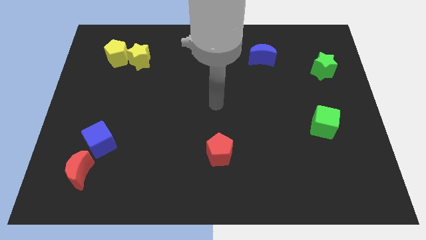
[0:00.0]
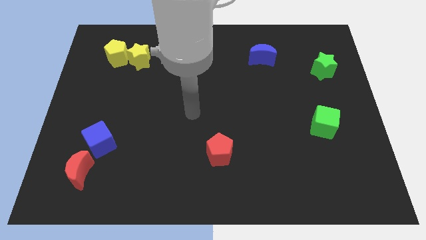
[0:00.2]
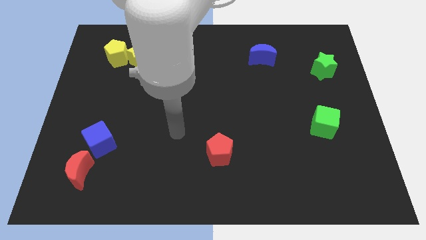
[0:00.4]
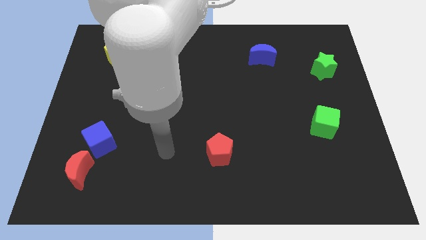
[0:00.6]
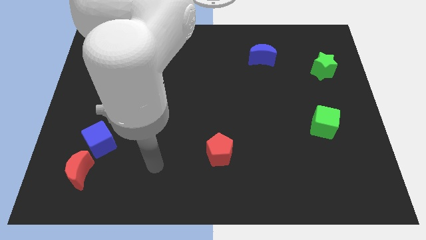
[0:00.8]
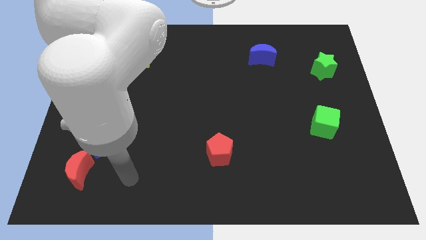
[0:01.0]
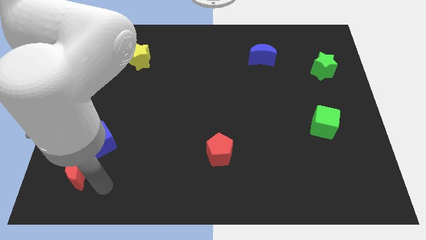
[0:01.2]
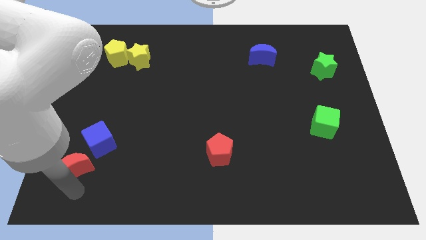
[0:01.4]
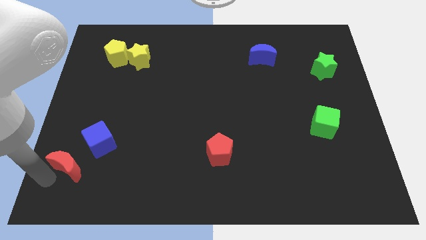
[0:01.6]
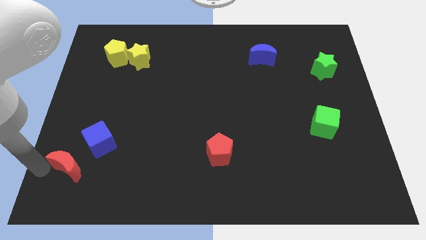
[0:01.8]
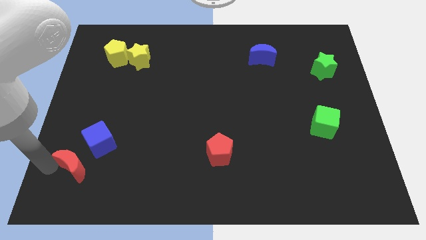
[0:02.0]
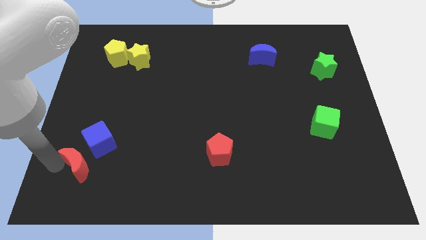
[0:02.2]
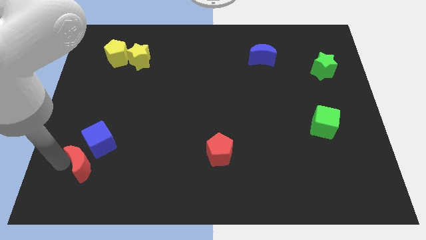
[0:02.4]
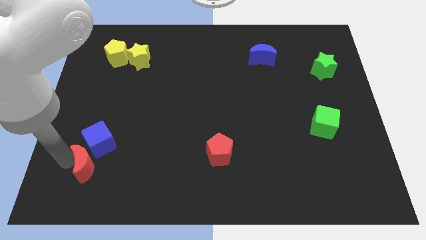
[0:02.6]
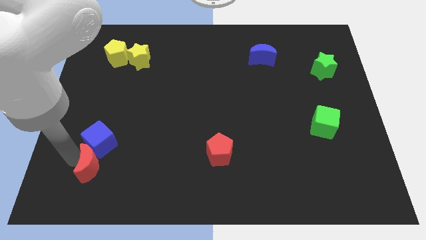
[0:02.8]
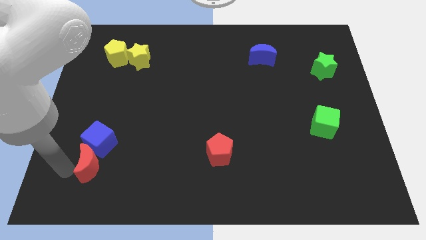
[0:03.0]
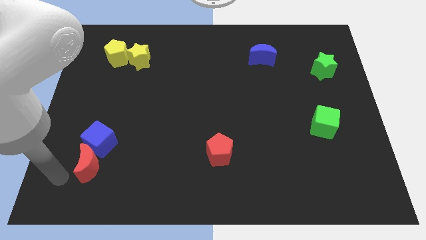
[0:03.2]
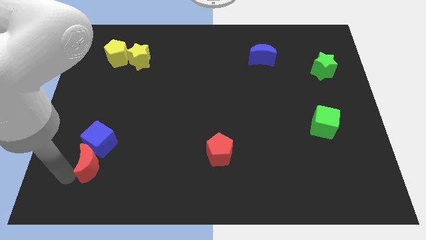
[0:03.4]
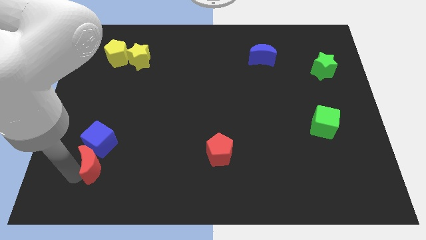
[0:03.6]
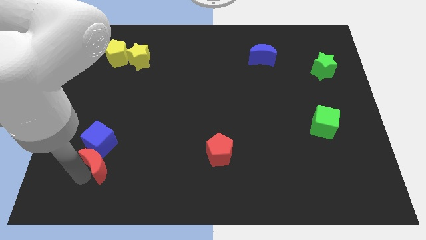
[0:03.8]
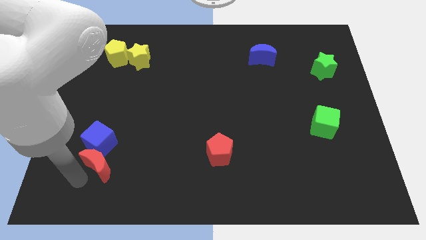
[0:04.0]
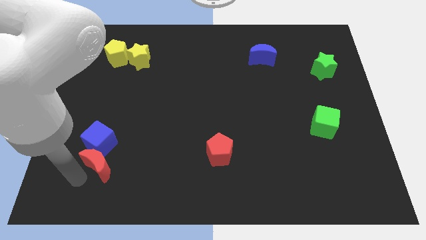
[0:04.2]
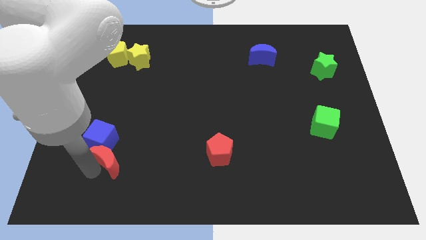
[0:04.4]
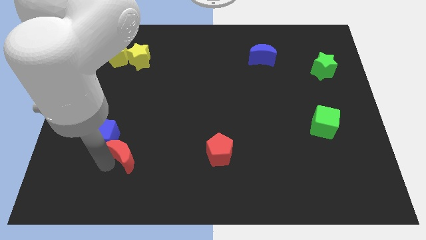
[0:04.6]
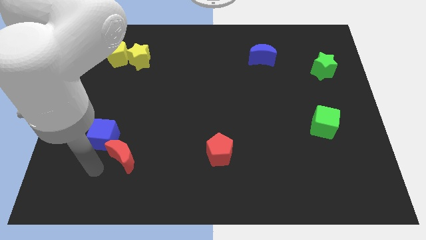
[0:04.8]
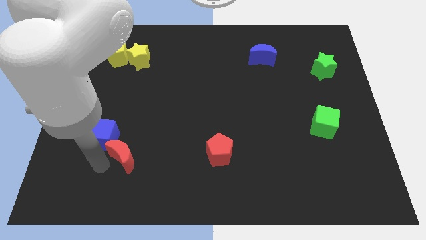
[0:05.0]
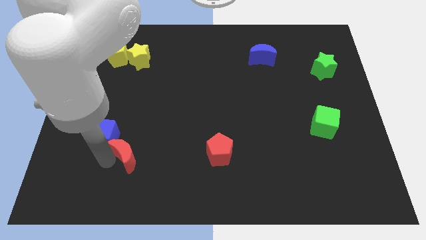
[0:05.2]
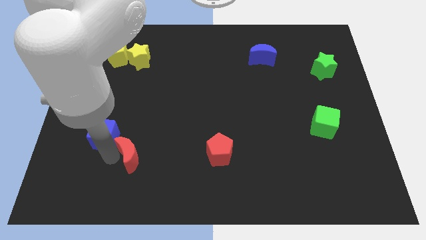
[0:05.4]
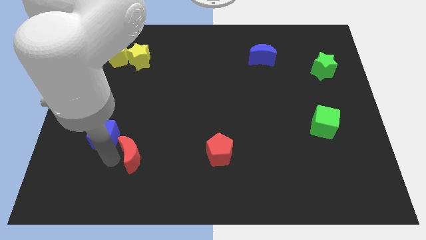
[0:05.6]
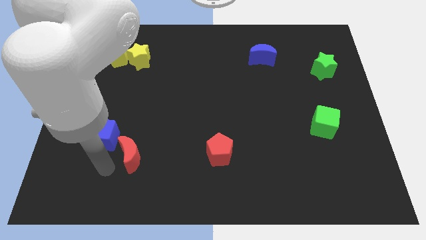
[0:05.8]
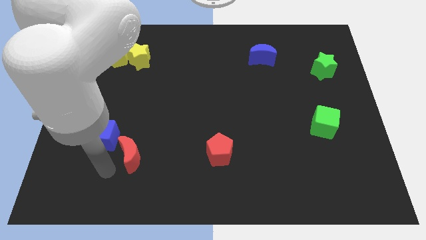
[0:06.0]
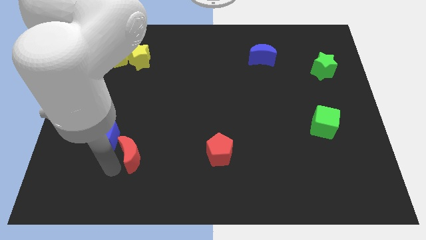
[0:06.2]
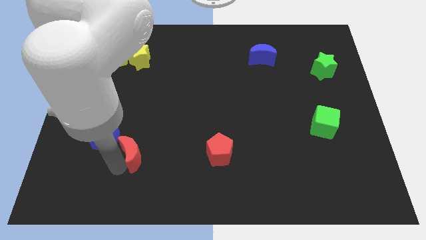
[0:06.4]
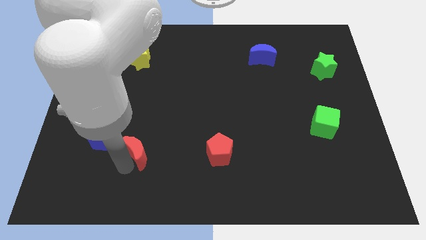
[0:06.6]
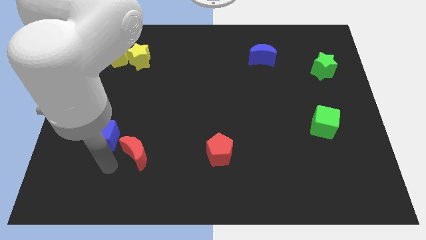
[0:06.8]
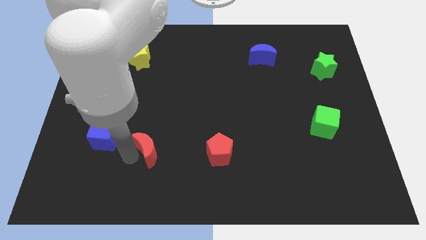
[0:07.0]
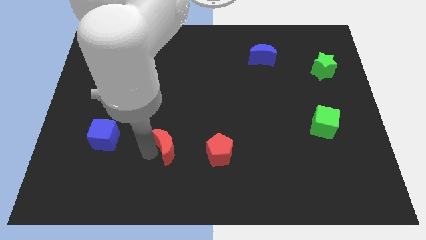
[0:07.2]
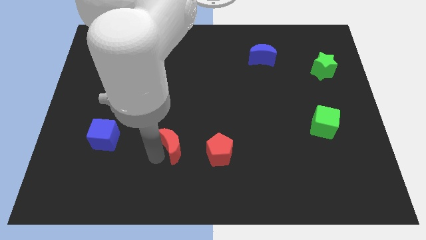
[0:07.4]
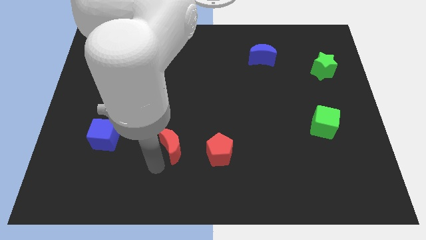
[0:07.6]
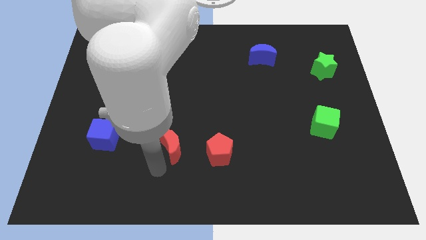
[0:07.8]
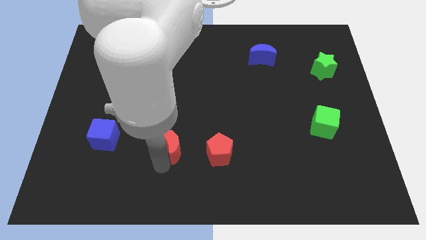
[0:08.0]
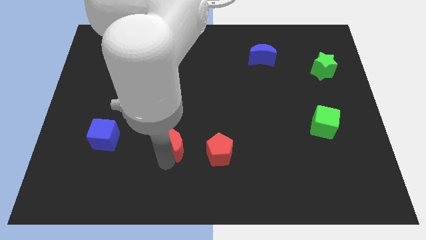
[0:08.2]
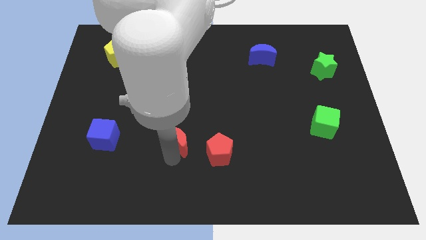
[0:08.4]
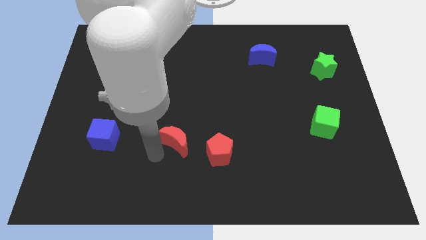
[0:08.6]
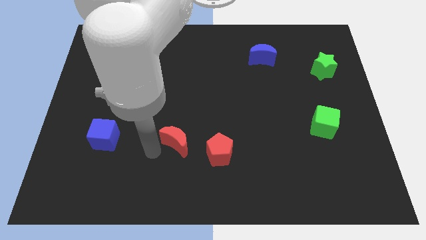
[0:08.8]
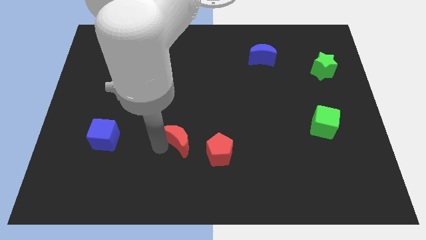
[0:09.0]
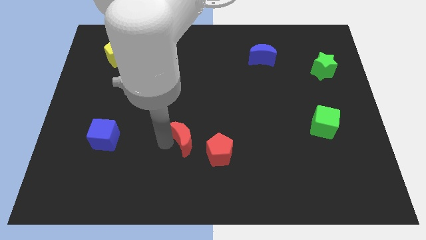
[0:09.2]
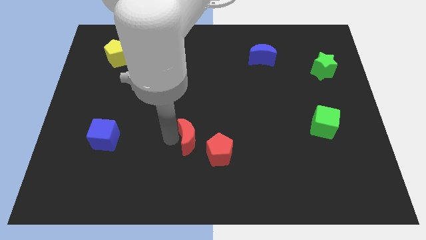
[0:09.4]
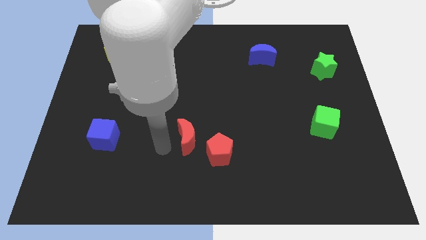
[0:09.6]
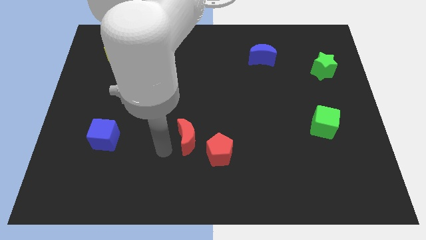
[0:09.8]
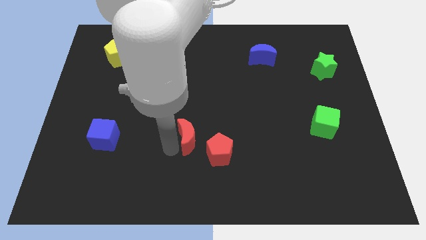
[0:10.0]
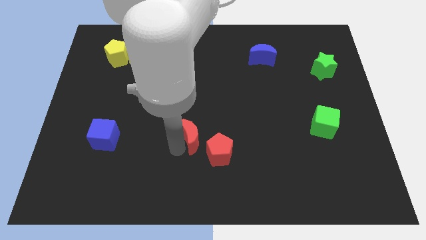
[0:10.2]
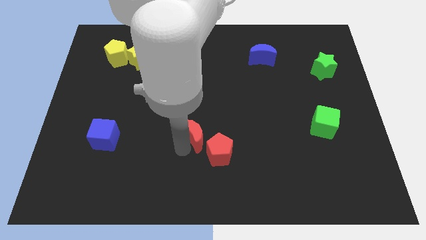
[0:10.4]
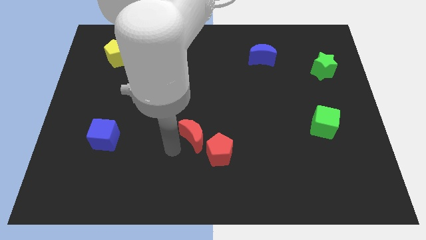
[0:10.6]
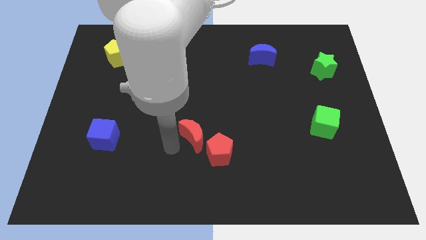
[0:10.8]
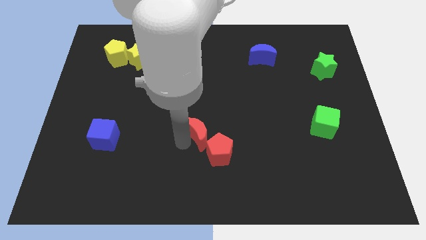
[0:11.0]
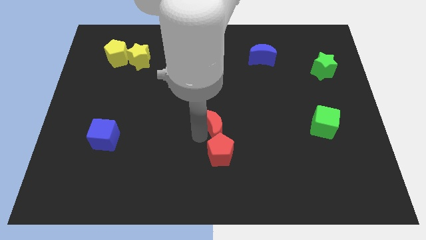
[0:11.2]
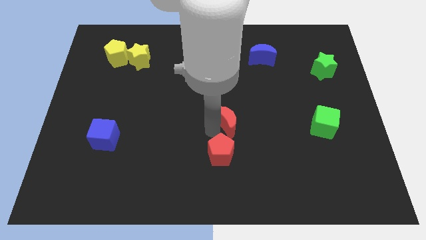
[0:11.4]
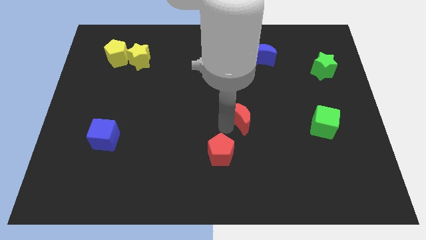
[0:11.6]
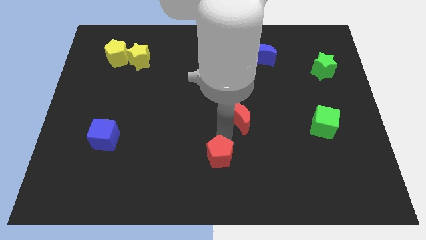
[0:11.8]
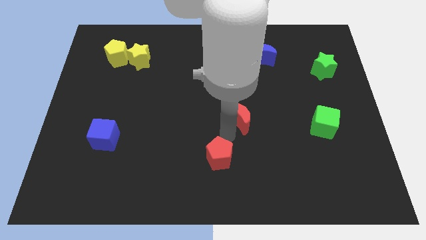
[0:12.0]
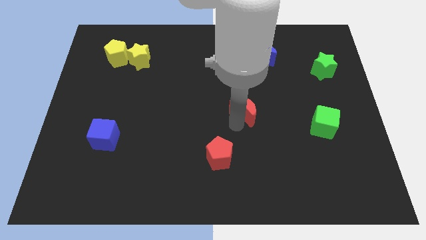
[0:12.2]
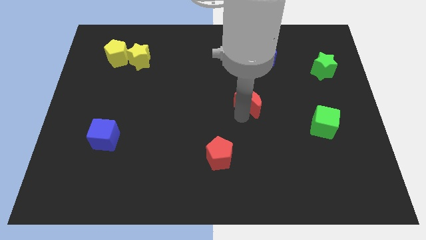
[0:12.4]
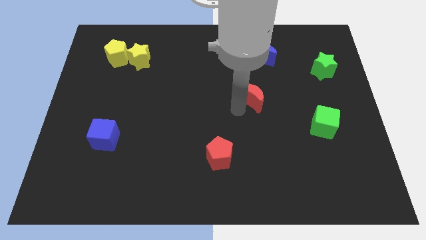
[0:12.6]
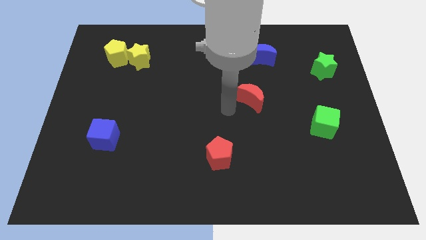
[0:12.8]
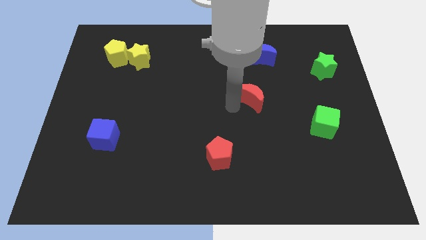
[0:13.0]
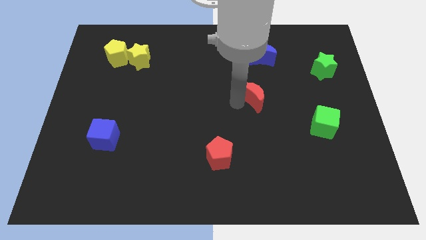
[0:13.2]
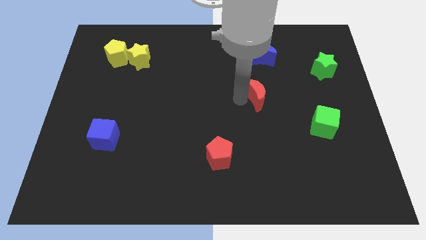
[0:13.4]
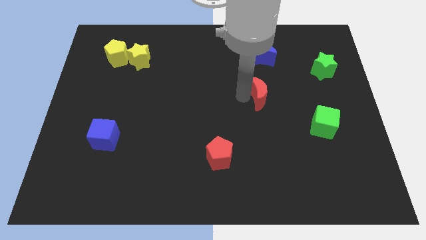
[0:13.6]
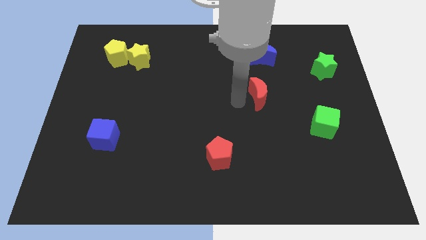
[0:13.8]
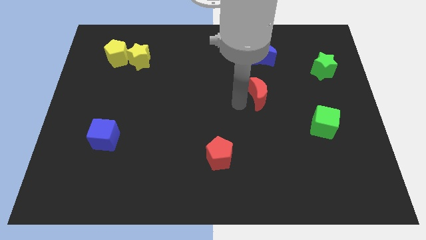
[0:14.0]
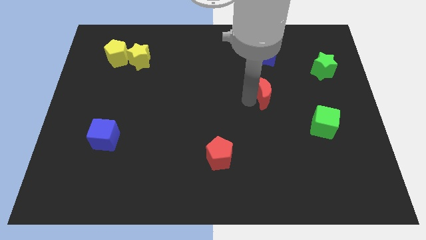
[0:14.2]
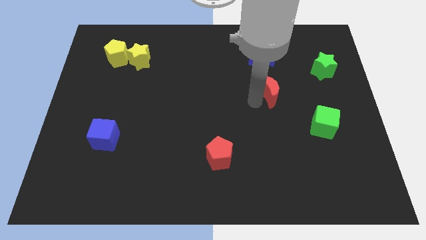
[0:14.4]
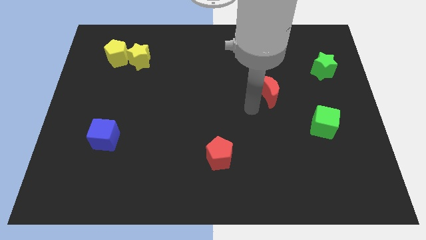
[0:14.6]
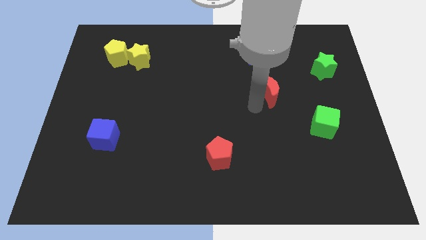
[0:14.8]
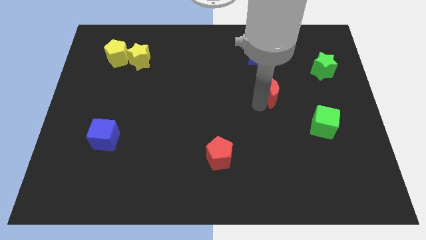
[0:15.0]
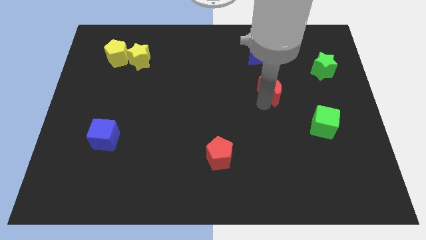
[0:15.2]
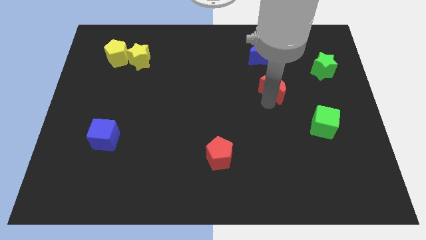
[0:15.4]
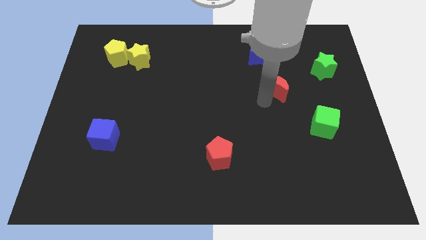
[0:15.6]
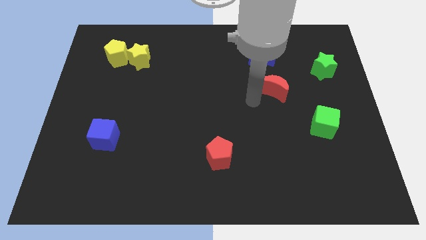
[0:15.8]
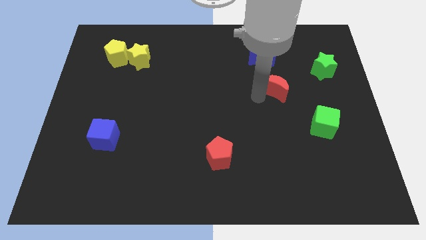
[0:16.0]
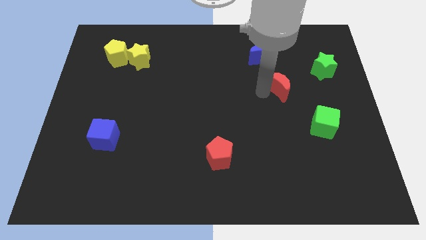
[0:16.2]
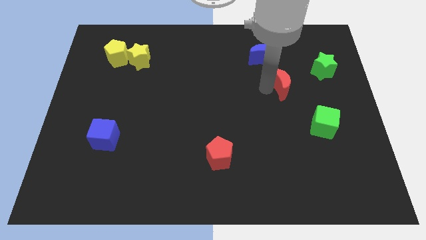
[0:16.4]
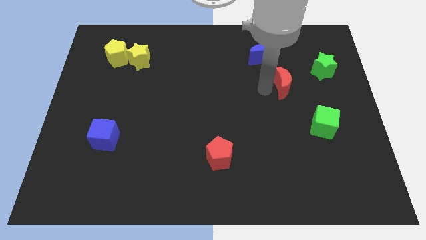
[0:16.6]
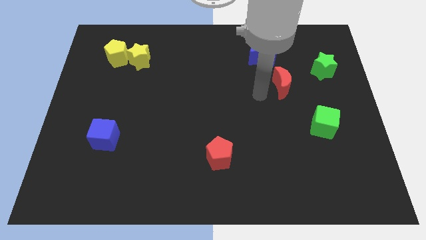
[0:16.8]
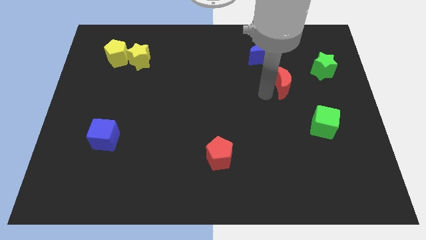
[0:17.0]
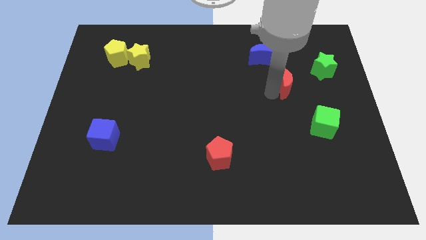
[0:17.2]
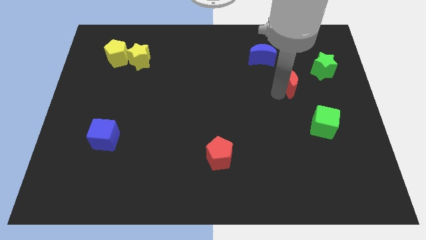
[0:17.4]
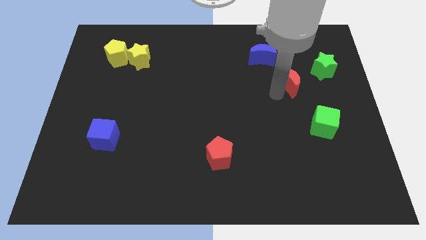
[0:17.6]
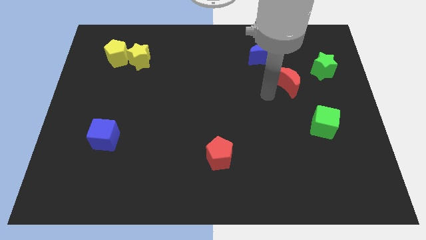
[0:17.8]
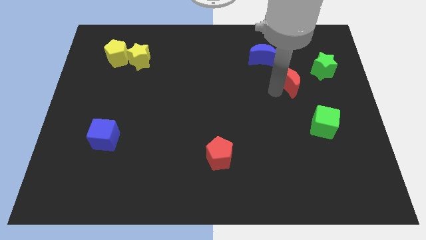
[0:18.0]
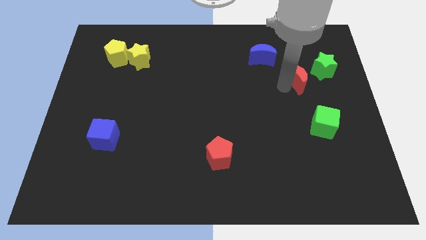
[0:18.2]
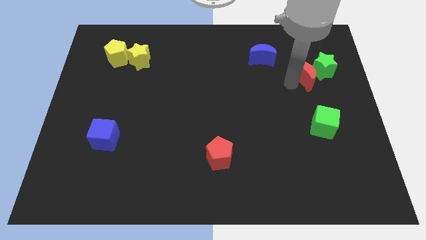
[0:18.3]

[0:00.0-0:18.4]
push the red moon next to the green star
